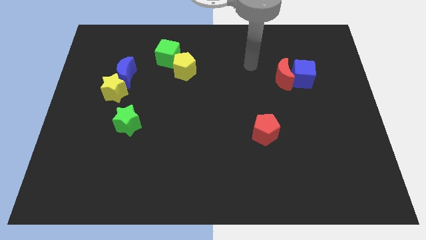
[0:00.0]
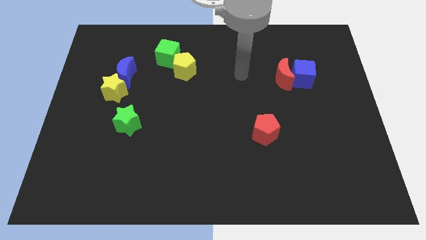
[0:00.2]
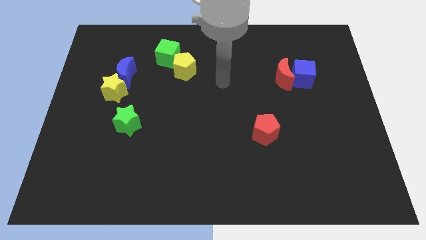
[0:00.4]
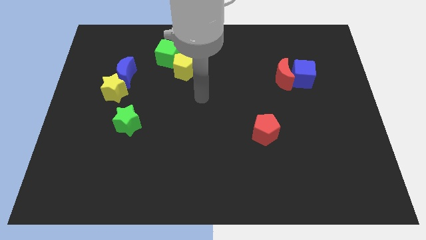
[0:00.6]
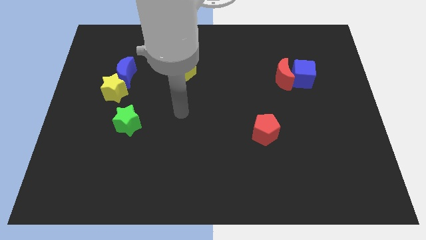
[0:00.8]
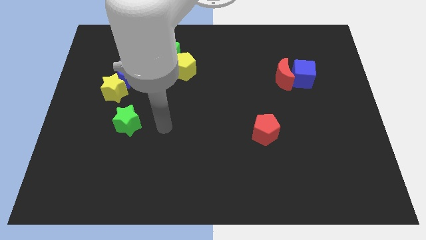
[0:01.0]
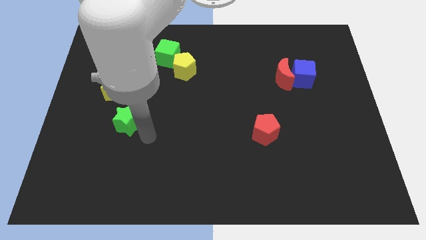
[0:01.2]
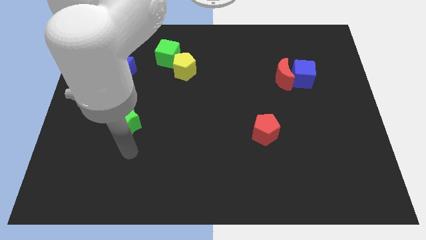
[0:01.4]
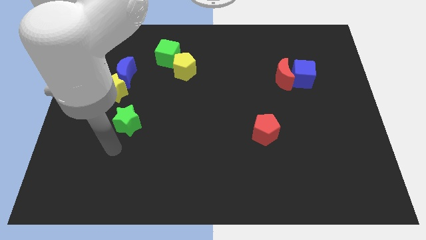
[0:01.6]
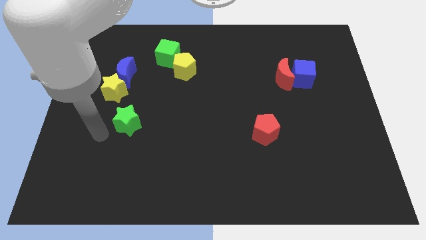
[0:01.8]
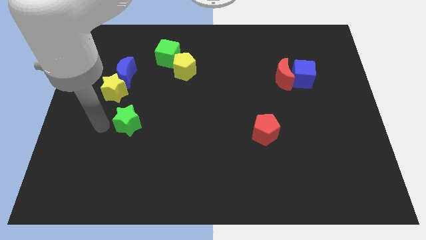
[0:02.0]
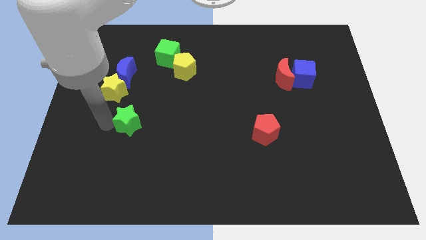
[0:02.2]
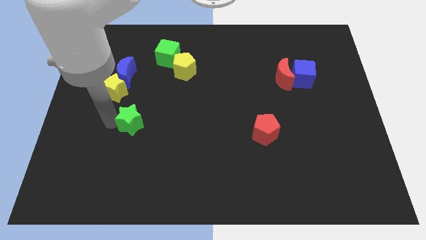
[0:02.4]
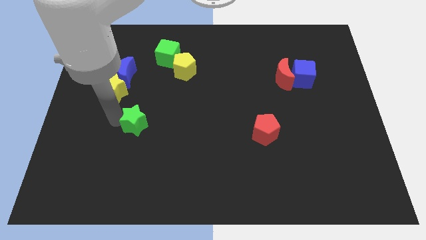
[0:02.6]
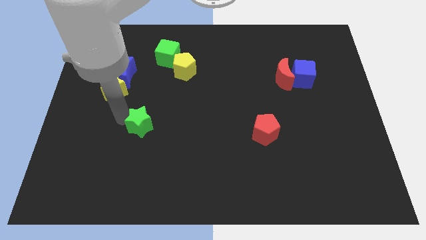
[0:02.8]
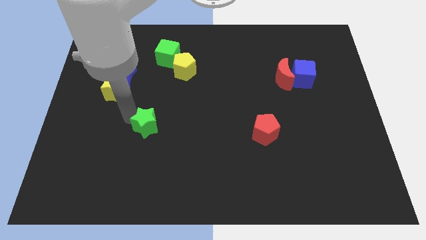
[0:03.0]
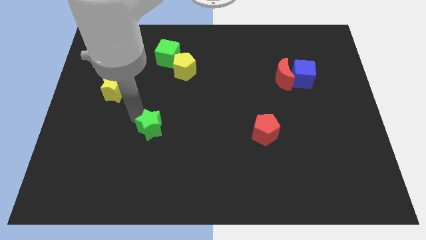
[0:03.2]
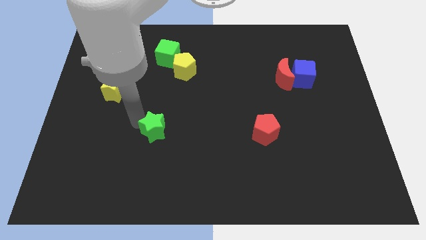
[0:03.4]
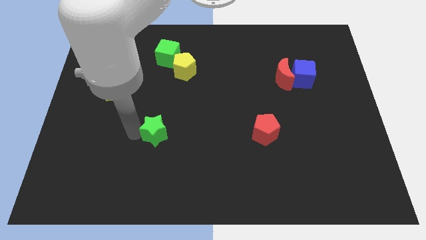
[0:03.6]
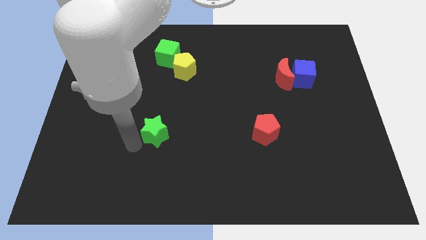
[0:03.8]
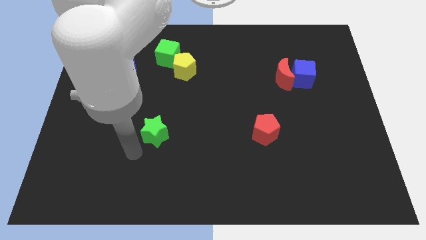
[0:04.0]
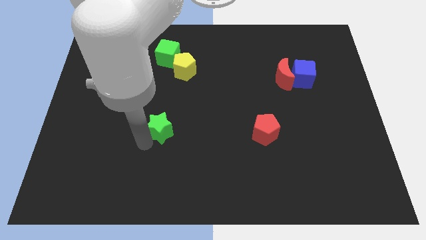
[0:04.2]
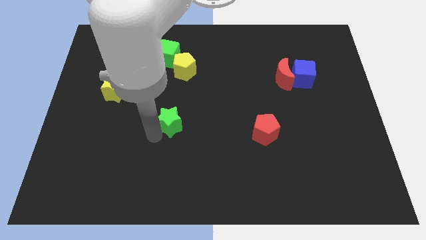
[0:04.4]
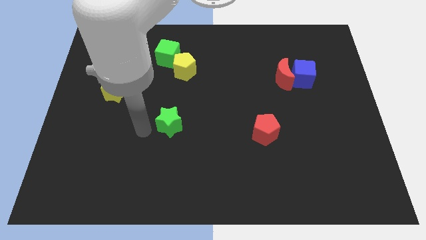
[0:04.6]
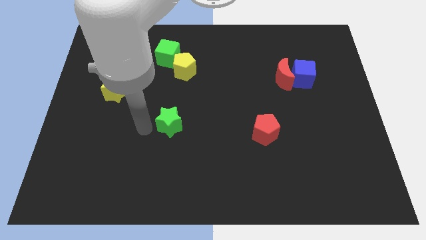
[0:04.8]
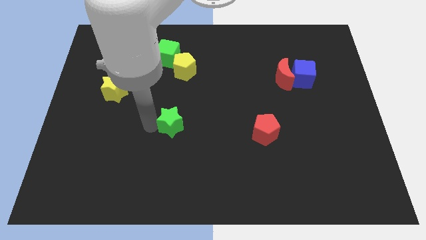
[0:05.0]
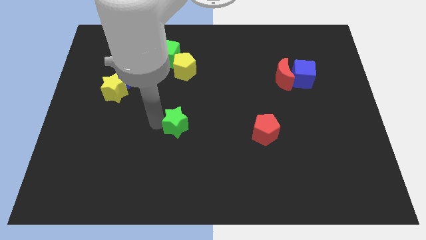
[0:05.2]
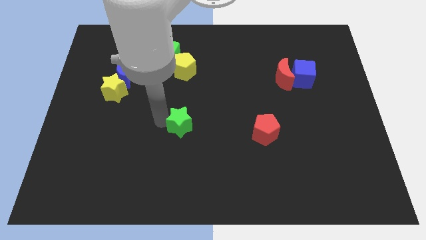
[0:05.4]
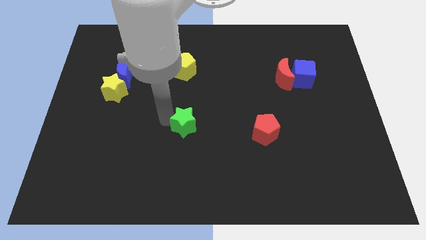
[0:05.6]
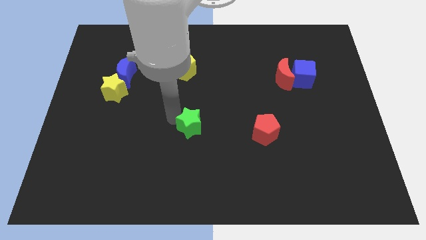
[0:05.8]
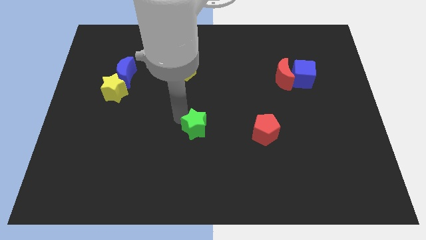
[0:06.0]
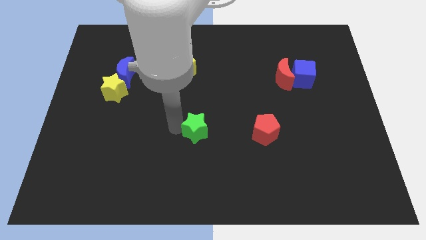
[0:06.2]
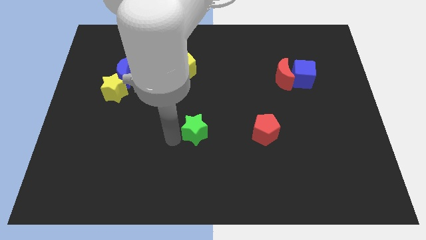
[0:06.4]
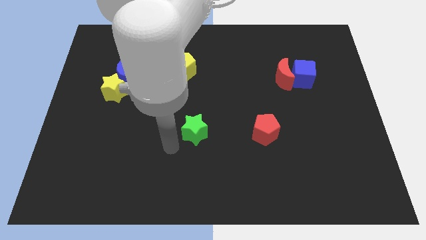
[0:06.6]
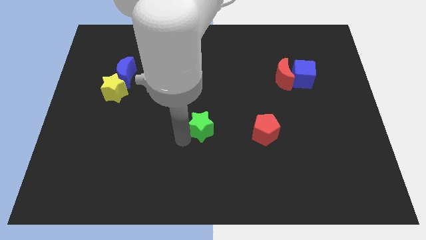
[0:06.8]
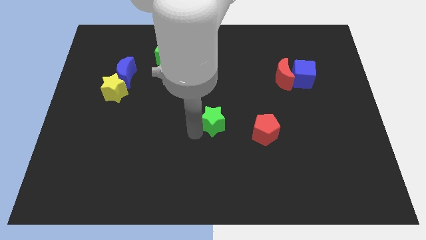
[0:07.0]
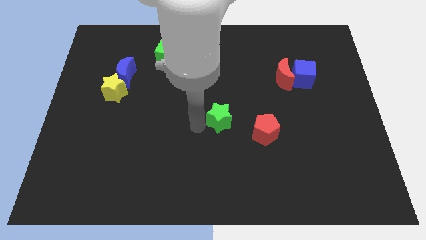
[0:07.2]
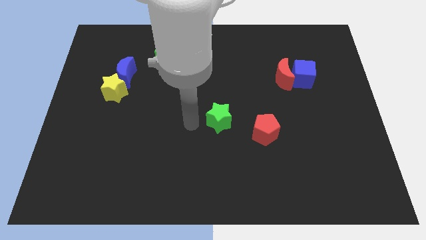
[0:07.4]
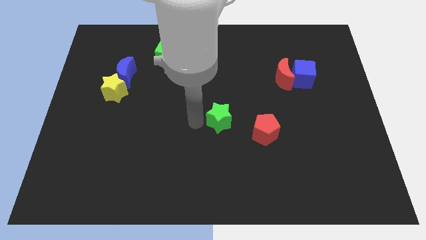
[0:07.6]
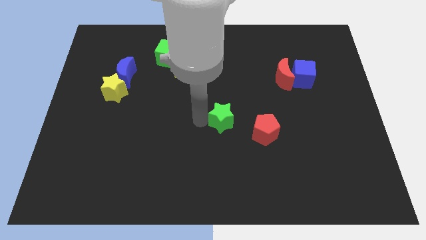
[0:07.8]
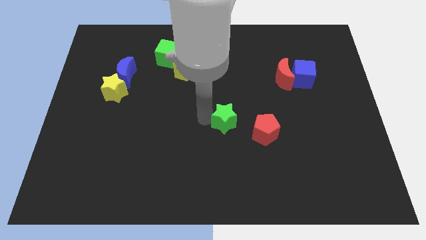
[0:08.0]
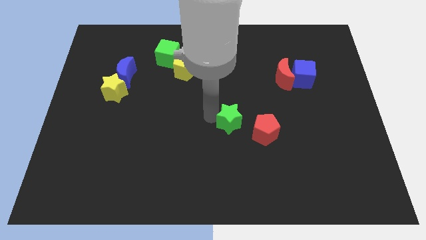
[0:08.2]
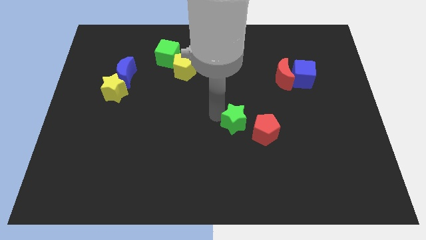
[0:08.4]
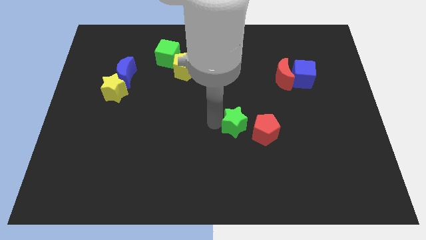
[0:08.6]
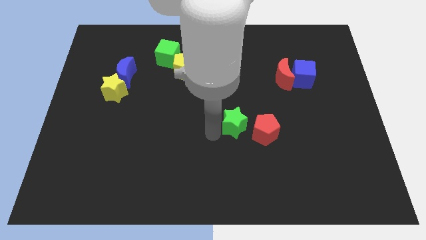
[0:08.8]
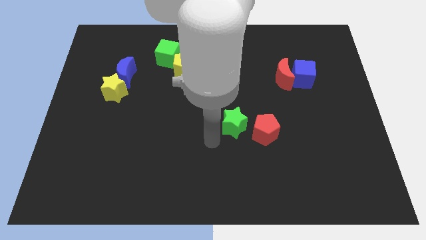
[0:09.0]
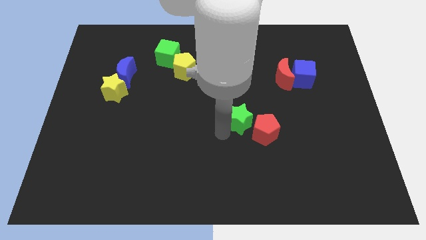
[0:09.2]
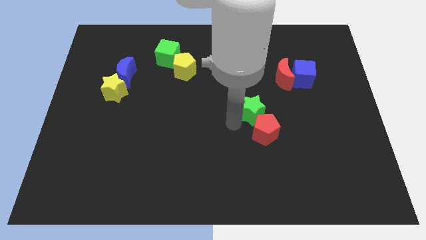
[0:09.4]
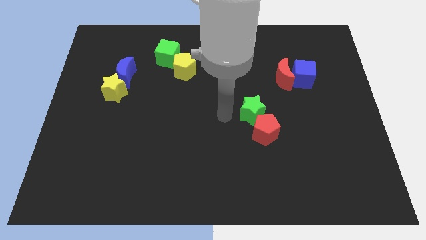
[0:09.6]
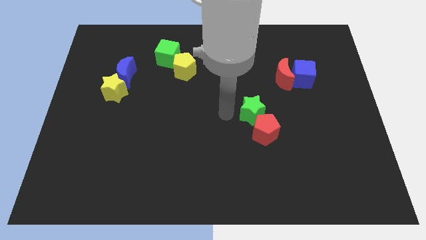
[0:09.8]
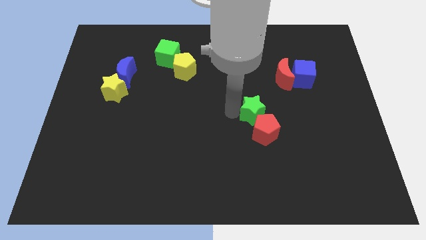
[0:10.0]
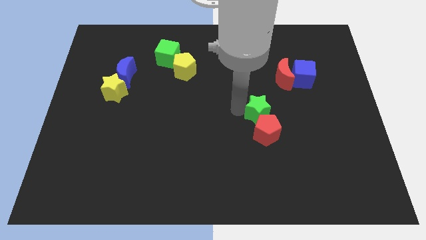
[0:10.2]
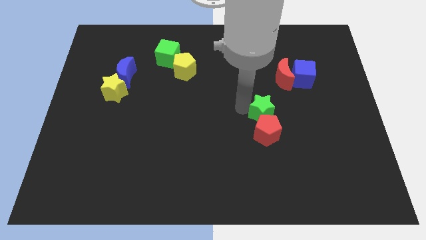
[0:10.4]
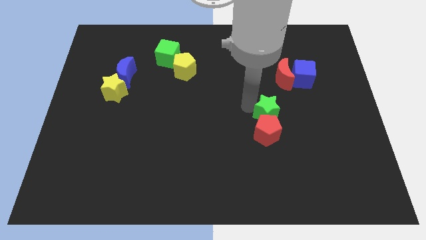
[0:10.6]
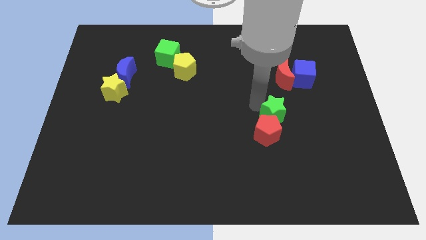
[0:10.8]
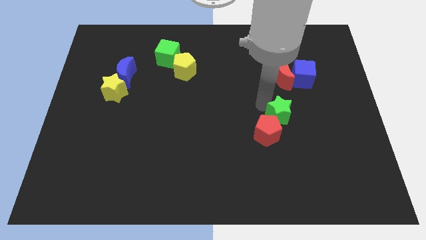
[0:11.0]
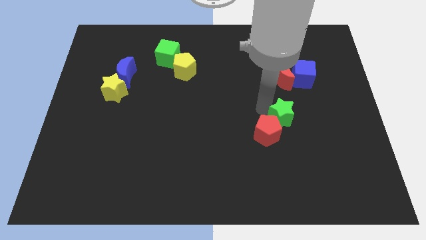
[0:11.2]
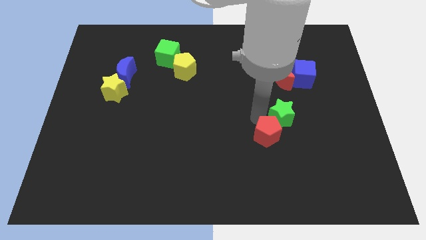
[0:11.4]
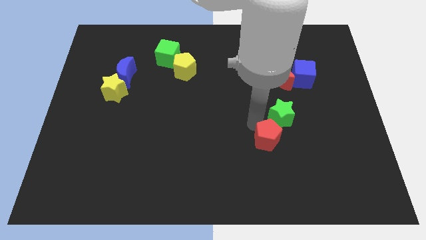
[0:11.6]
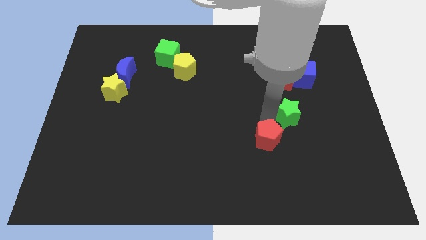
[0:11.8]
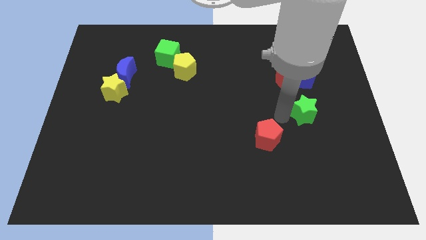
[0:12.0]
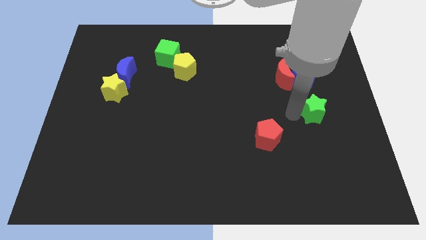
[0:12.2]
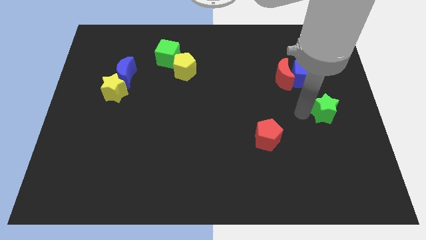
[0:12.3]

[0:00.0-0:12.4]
push the green star to the center right
